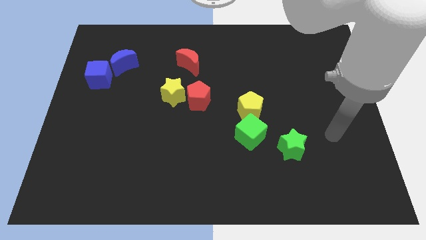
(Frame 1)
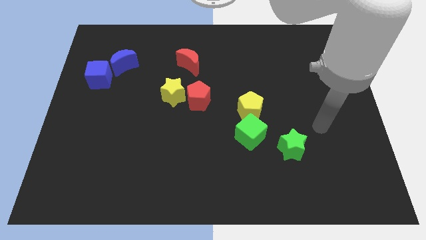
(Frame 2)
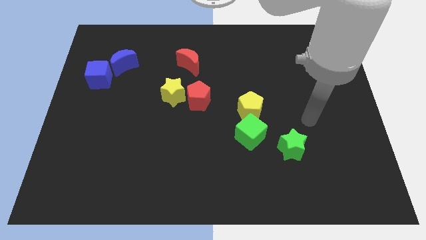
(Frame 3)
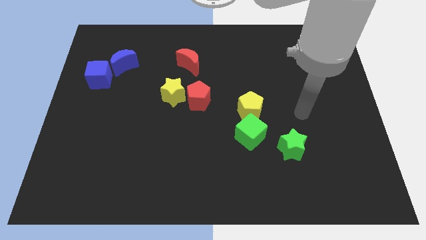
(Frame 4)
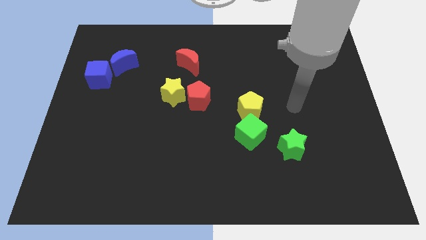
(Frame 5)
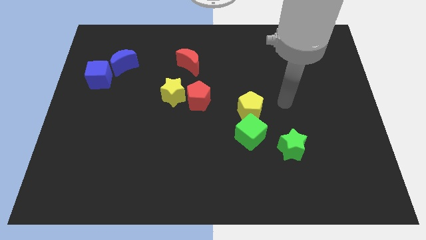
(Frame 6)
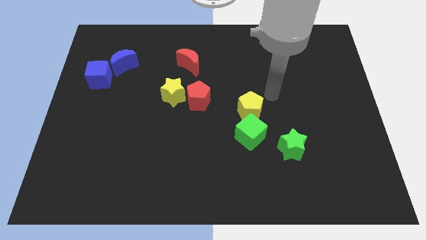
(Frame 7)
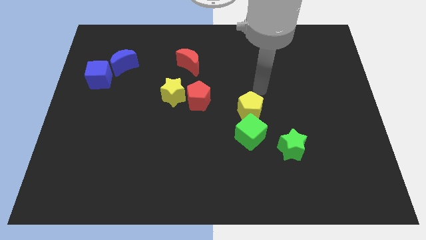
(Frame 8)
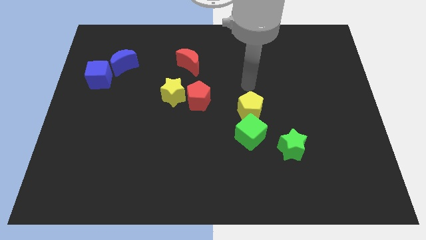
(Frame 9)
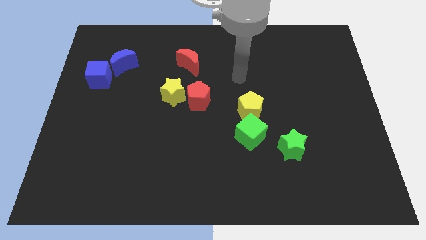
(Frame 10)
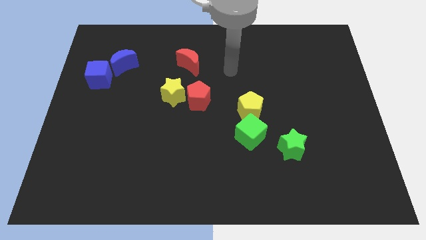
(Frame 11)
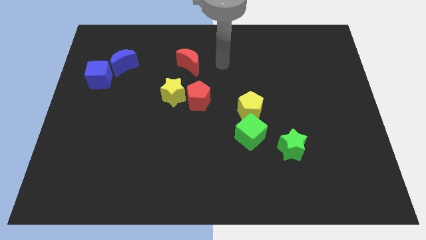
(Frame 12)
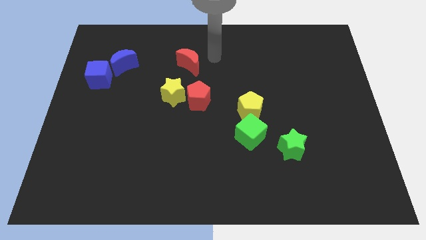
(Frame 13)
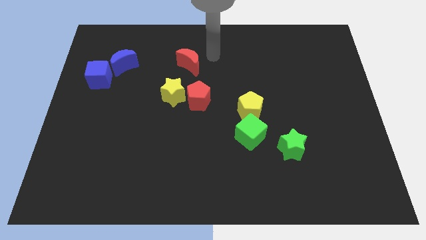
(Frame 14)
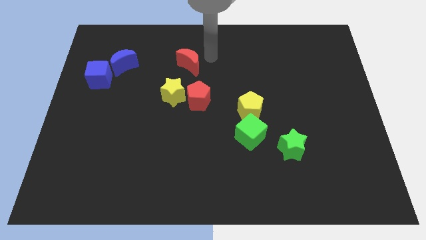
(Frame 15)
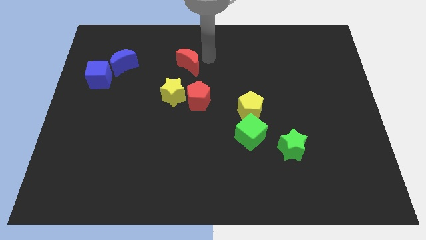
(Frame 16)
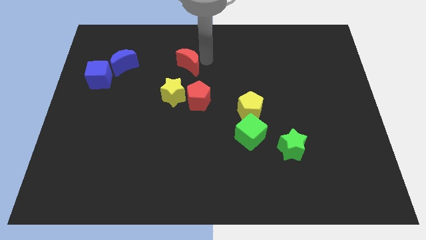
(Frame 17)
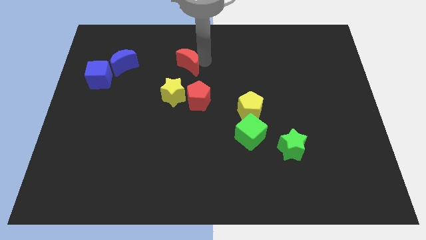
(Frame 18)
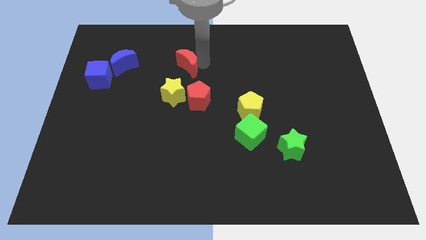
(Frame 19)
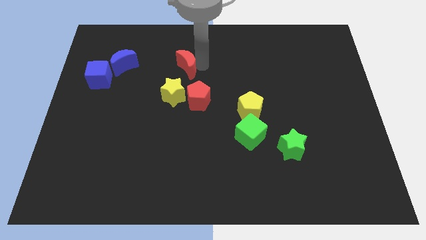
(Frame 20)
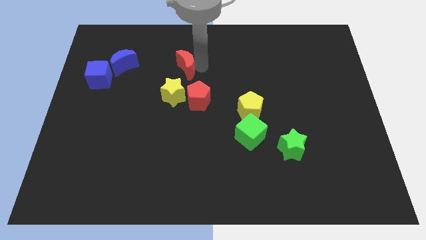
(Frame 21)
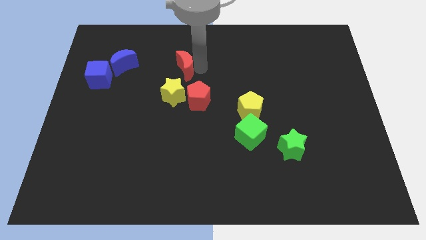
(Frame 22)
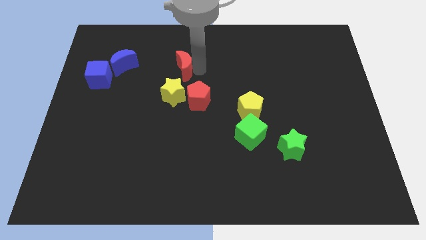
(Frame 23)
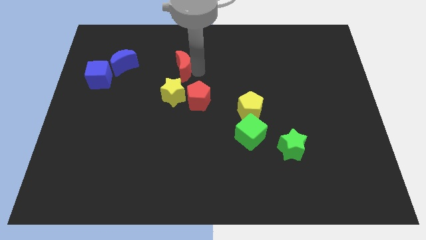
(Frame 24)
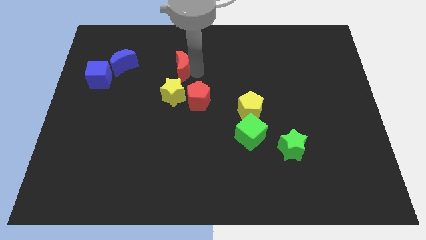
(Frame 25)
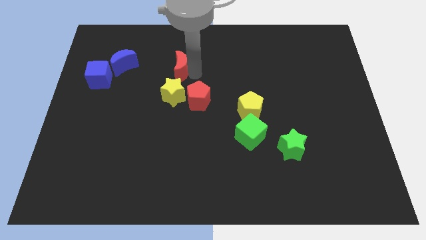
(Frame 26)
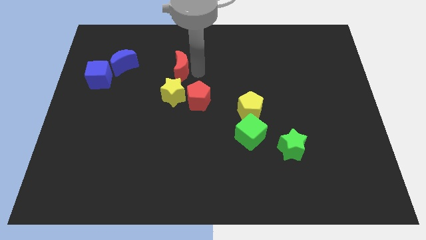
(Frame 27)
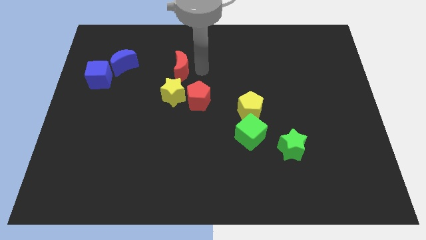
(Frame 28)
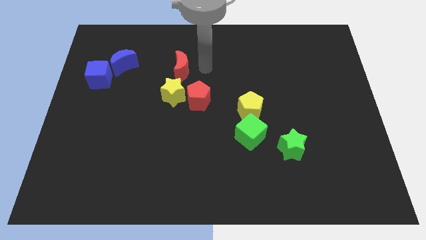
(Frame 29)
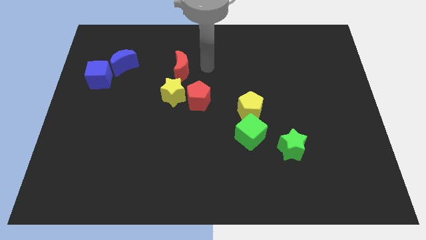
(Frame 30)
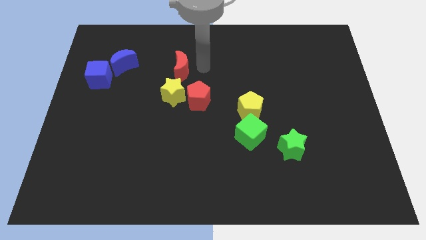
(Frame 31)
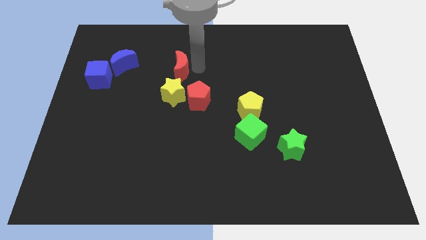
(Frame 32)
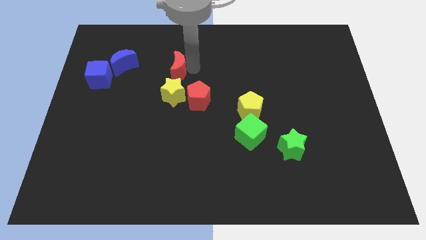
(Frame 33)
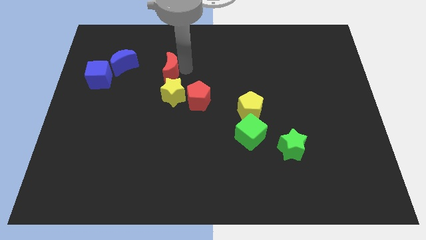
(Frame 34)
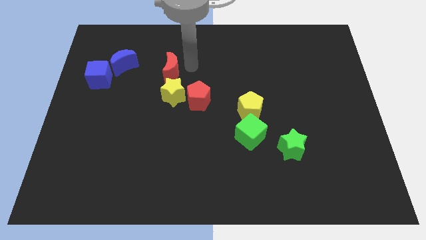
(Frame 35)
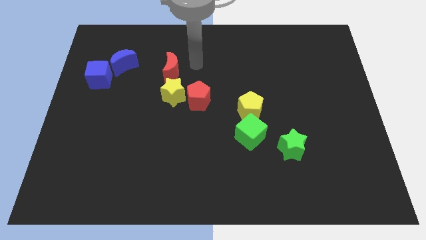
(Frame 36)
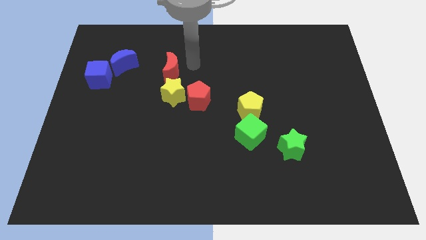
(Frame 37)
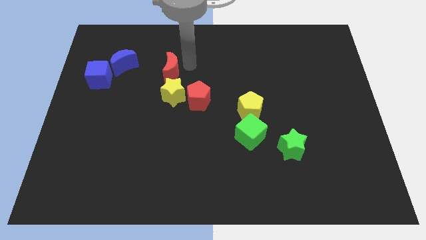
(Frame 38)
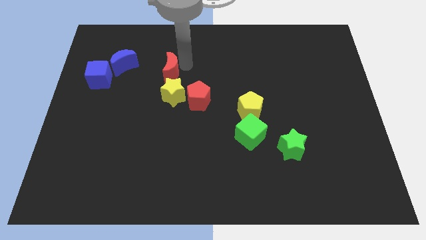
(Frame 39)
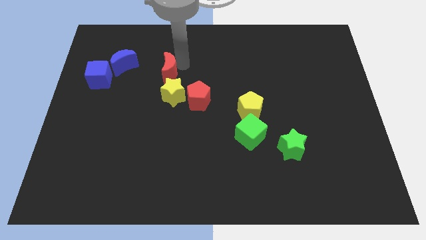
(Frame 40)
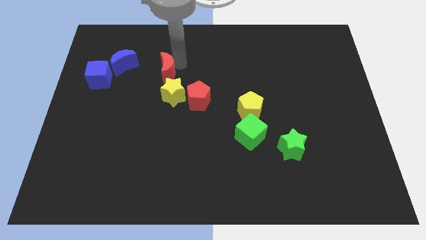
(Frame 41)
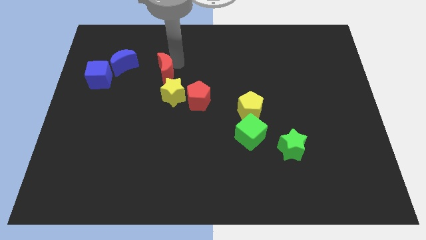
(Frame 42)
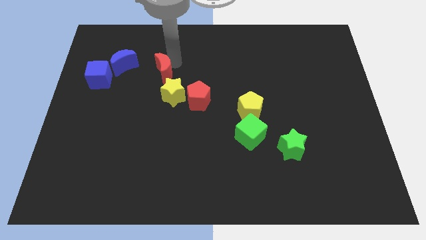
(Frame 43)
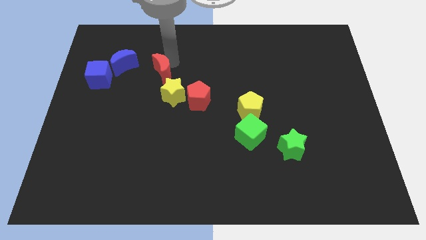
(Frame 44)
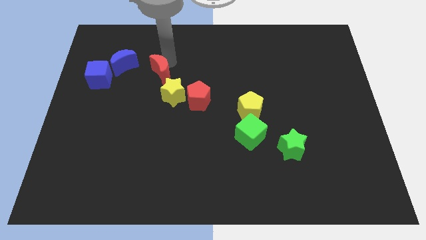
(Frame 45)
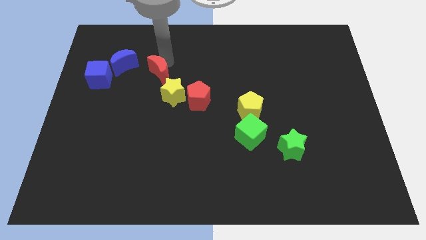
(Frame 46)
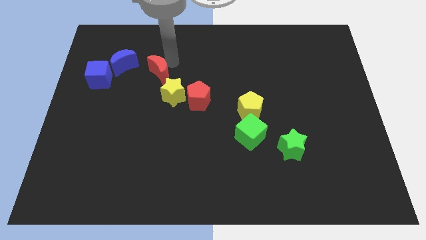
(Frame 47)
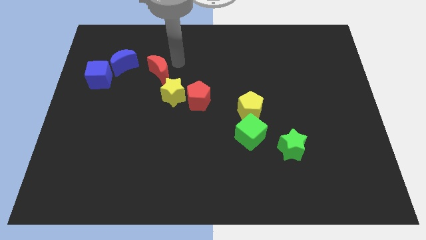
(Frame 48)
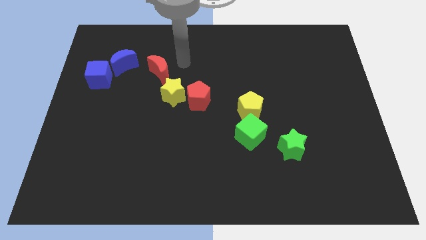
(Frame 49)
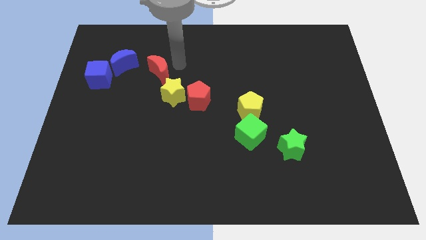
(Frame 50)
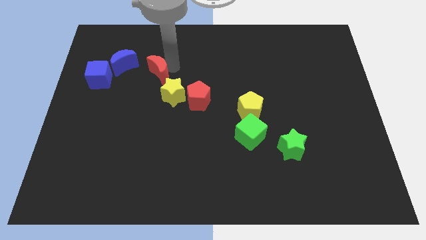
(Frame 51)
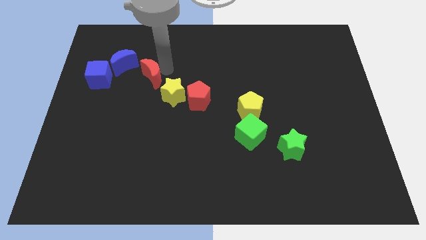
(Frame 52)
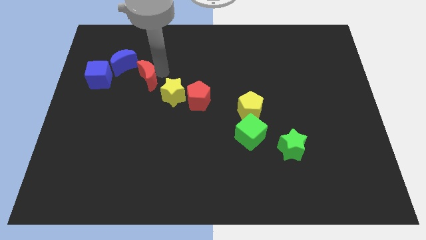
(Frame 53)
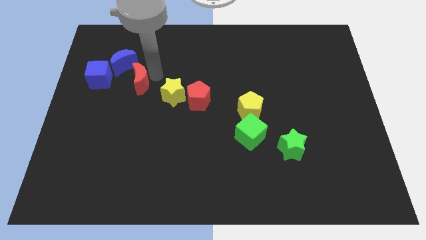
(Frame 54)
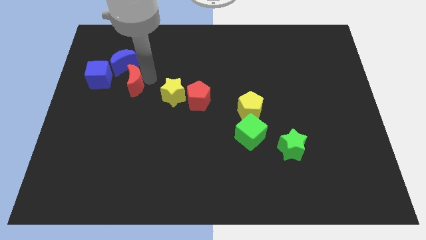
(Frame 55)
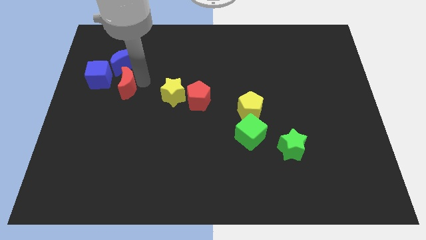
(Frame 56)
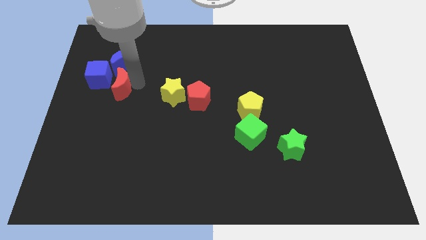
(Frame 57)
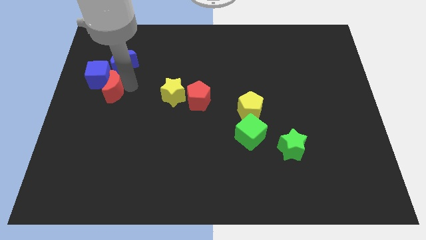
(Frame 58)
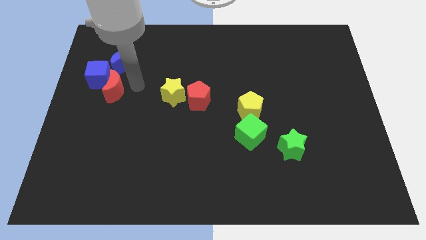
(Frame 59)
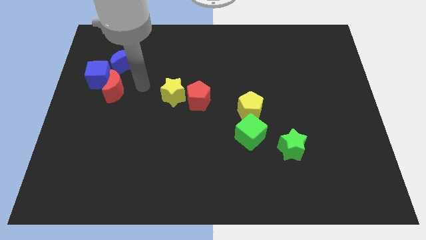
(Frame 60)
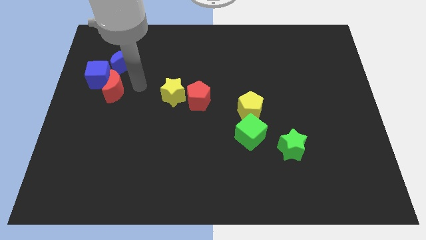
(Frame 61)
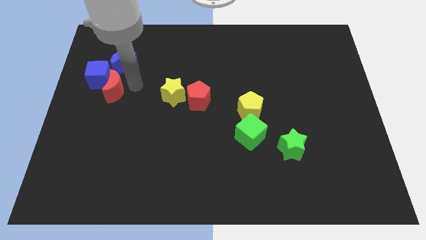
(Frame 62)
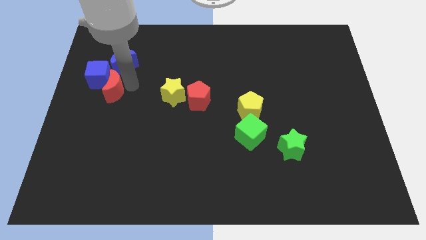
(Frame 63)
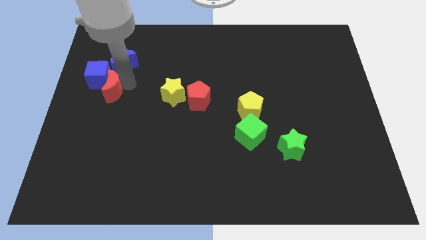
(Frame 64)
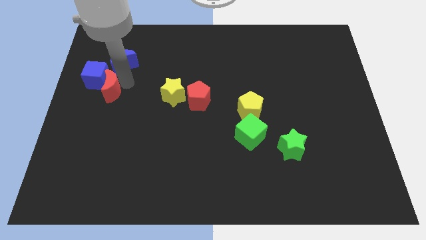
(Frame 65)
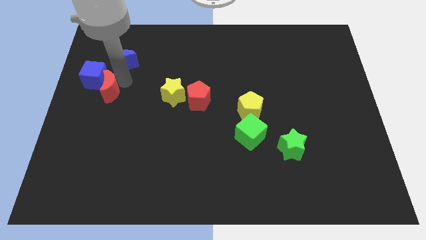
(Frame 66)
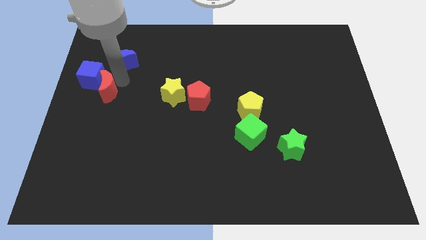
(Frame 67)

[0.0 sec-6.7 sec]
put the red moon to the center left
